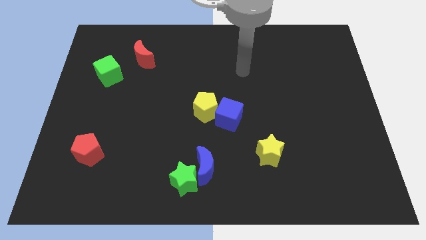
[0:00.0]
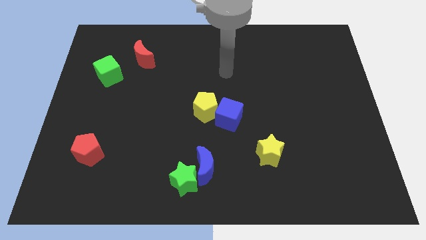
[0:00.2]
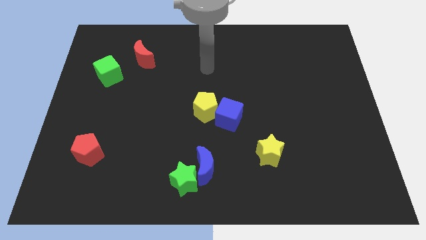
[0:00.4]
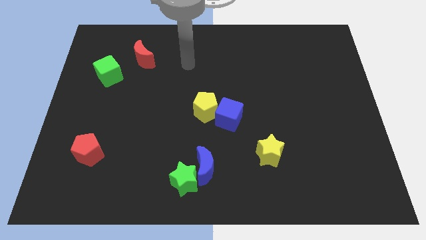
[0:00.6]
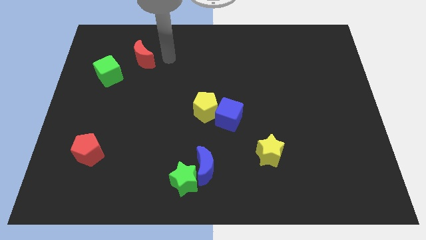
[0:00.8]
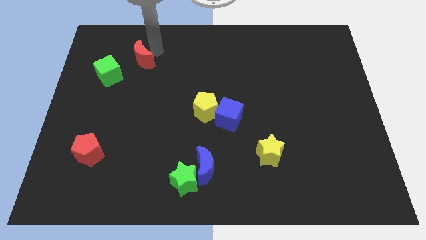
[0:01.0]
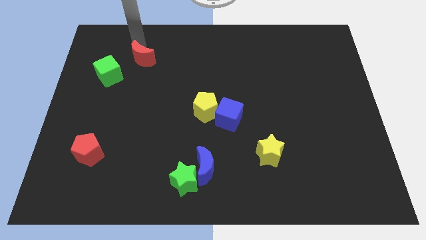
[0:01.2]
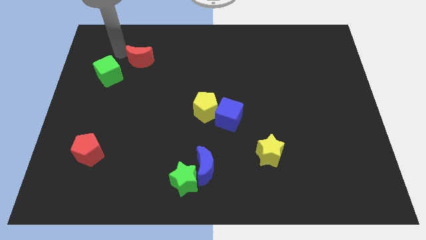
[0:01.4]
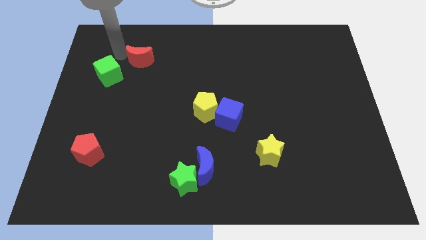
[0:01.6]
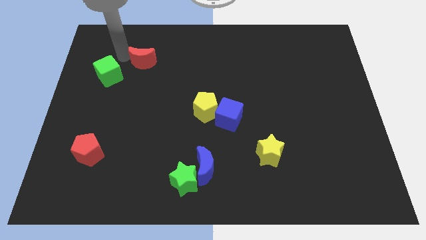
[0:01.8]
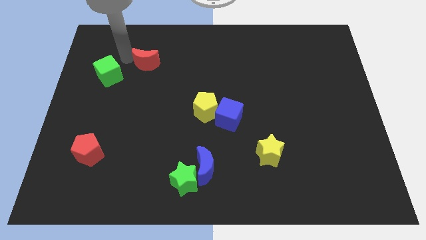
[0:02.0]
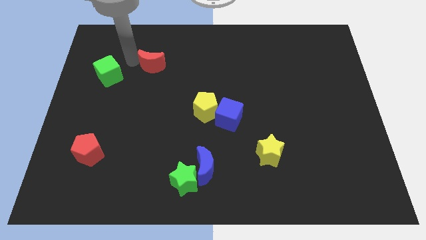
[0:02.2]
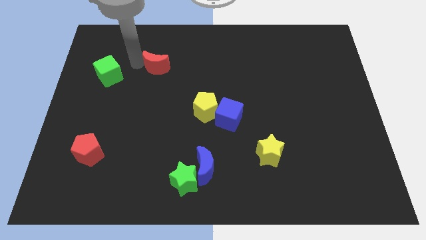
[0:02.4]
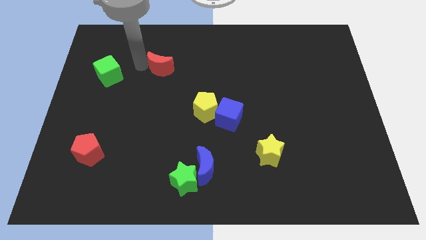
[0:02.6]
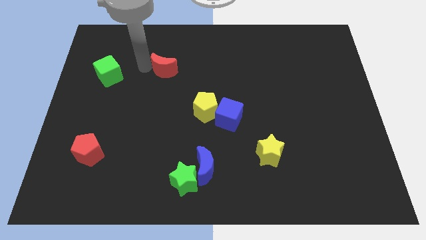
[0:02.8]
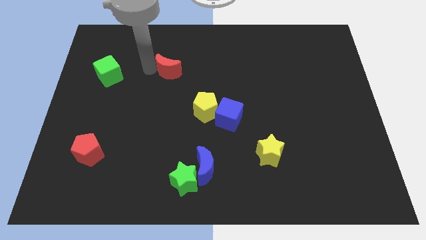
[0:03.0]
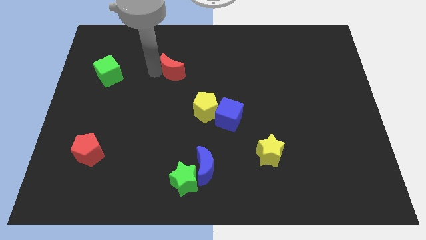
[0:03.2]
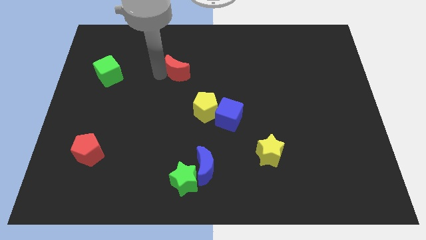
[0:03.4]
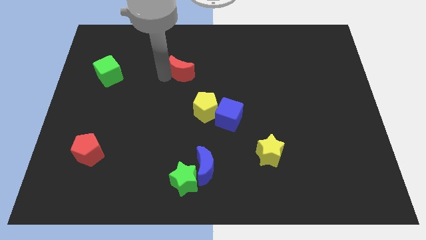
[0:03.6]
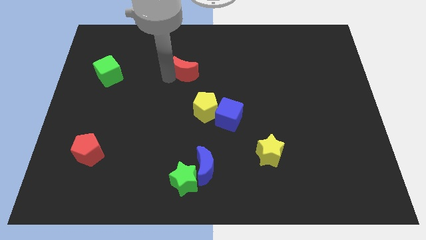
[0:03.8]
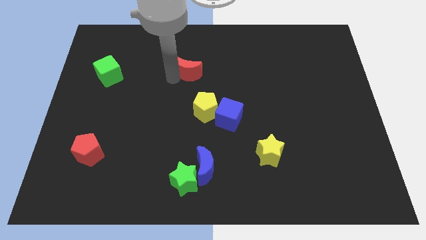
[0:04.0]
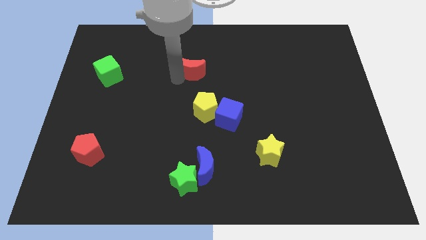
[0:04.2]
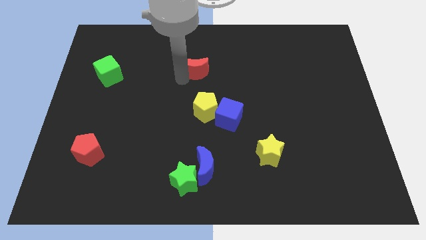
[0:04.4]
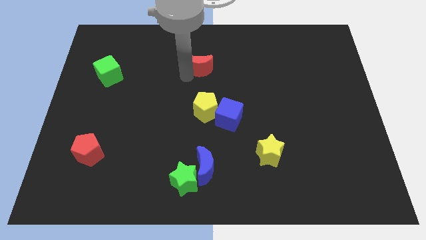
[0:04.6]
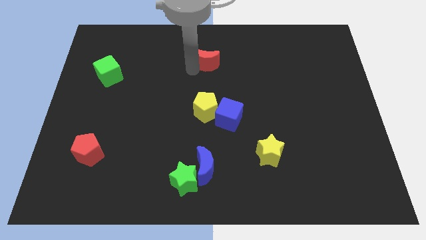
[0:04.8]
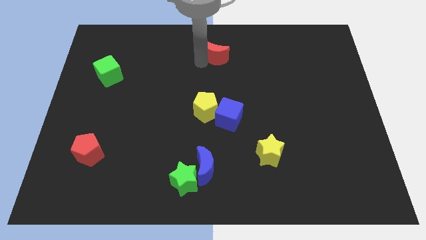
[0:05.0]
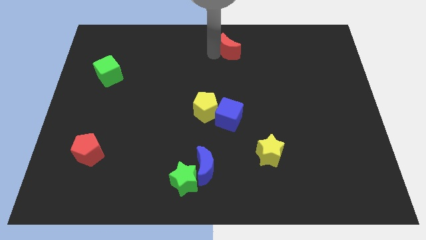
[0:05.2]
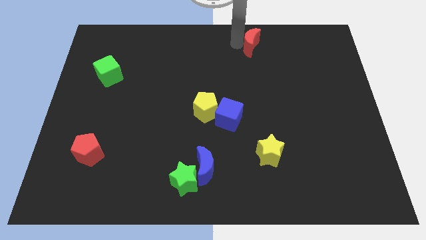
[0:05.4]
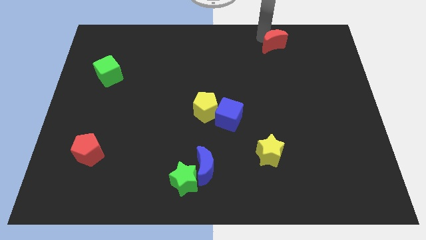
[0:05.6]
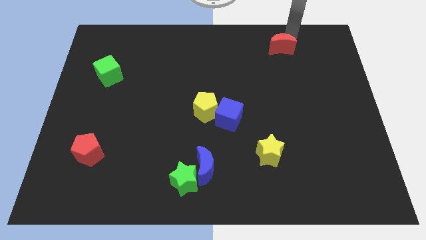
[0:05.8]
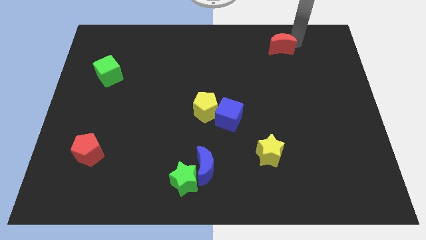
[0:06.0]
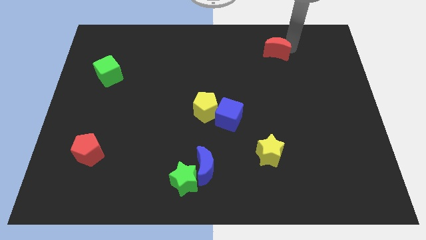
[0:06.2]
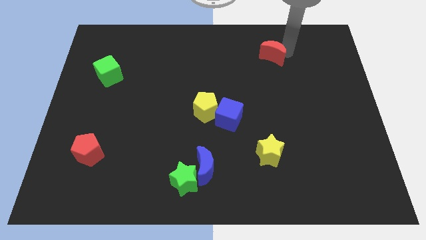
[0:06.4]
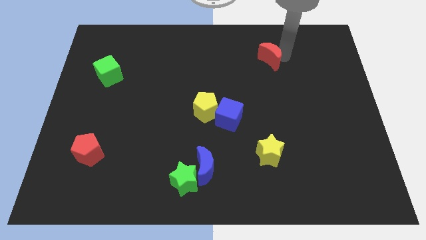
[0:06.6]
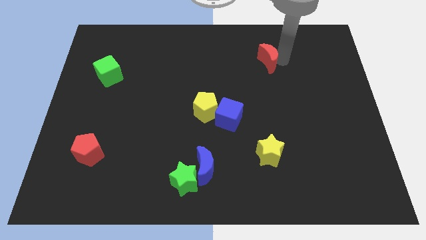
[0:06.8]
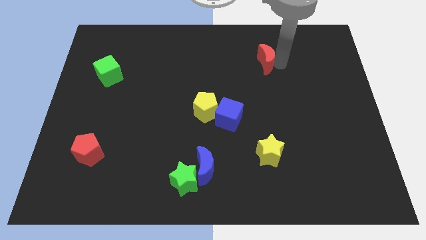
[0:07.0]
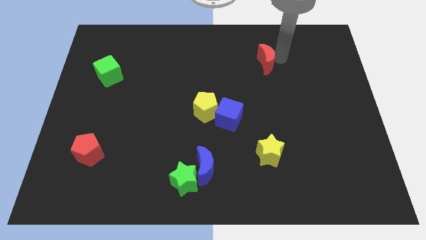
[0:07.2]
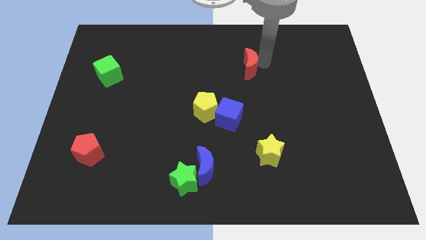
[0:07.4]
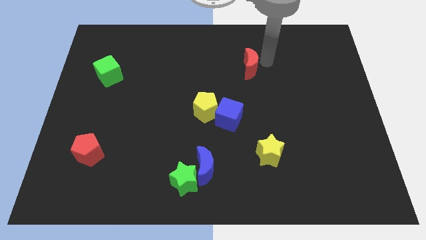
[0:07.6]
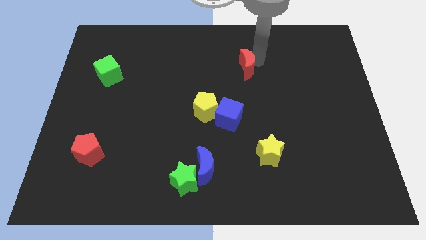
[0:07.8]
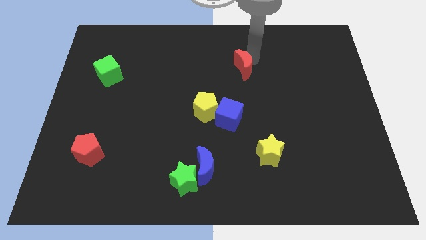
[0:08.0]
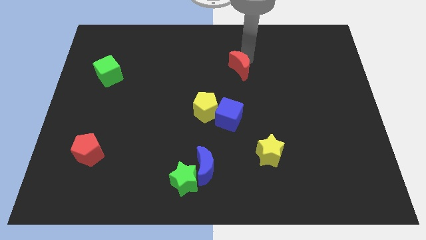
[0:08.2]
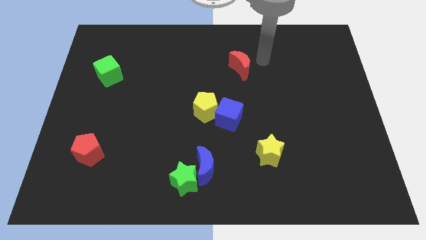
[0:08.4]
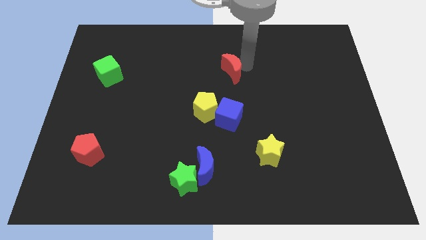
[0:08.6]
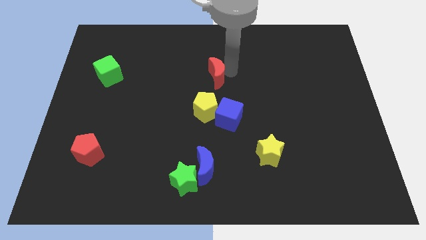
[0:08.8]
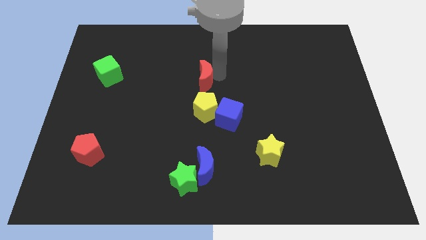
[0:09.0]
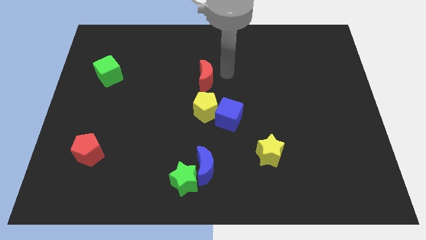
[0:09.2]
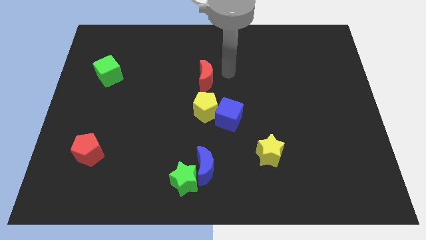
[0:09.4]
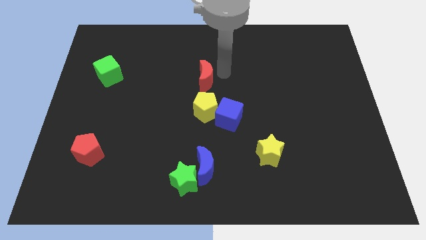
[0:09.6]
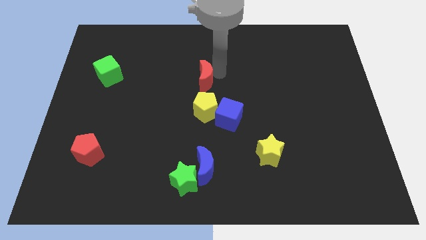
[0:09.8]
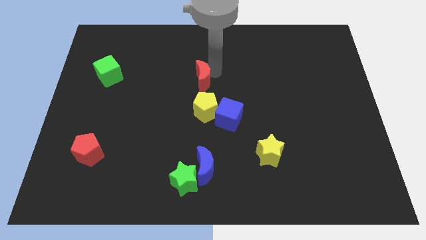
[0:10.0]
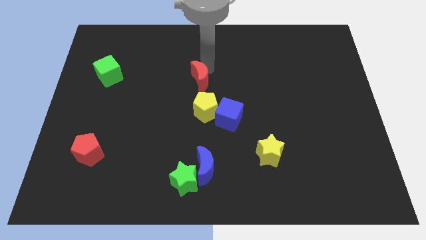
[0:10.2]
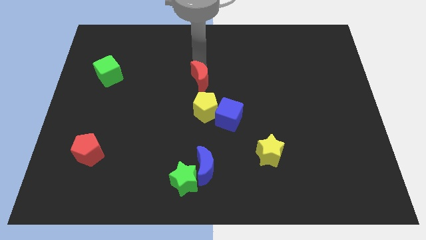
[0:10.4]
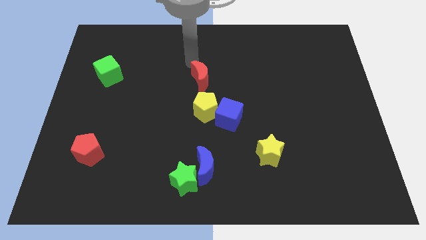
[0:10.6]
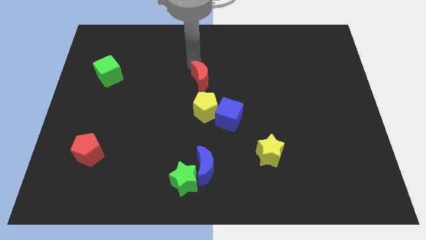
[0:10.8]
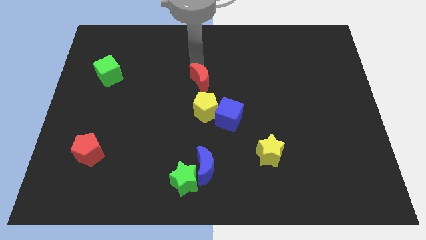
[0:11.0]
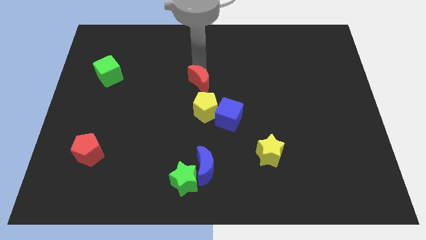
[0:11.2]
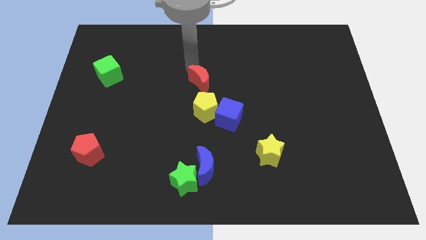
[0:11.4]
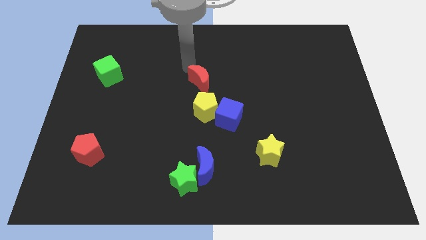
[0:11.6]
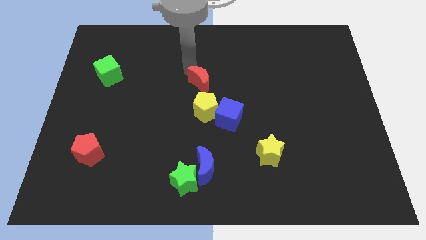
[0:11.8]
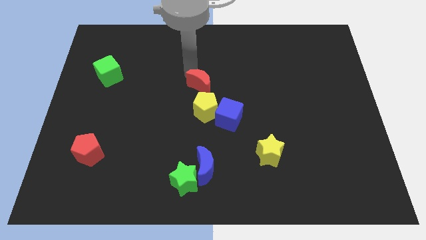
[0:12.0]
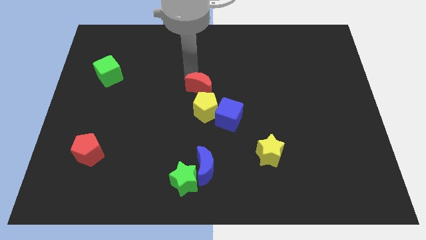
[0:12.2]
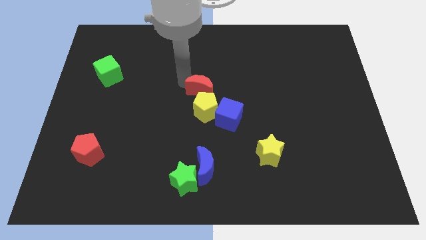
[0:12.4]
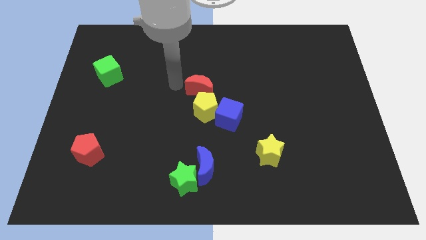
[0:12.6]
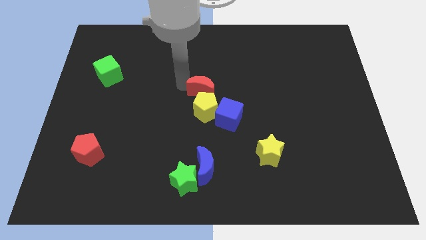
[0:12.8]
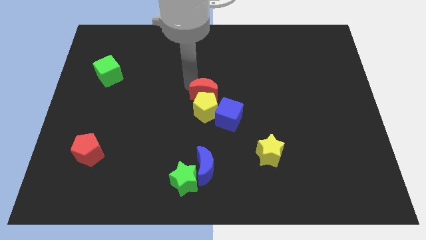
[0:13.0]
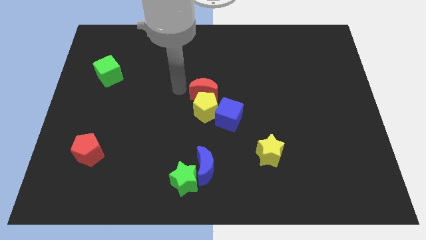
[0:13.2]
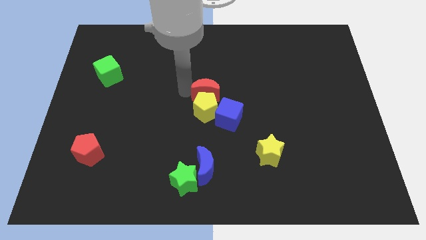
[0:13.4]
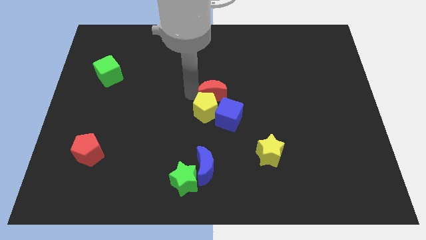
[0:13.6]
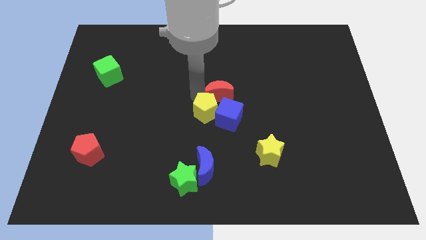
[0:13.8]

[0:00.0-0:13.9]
push the red moon right of the yellow pentagon
